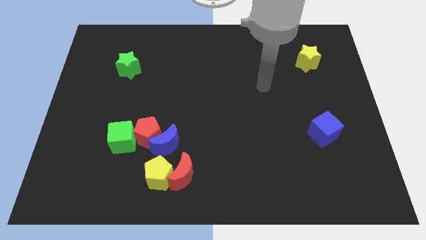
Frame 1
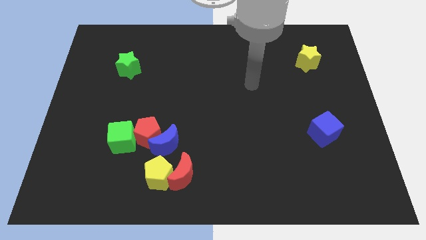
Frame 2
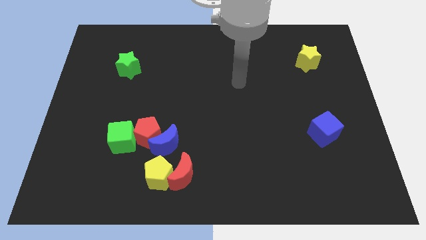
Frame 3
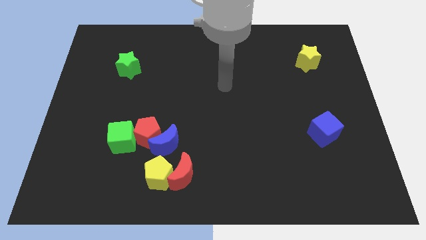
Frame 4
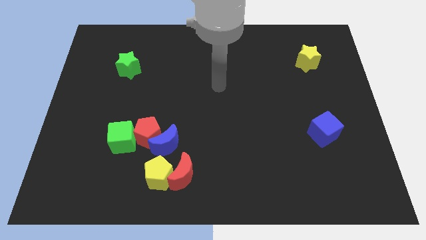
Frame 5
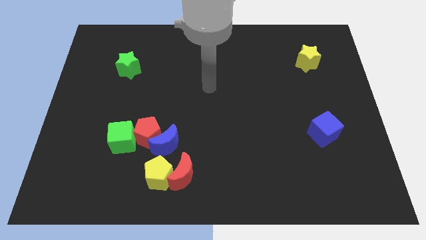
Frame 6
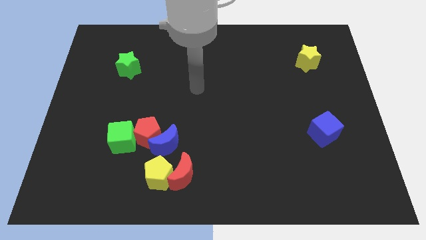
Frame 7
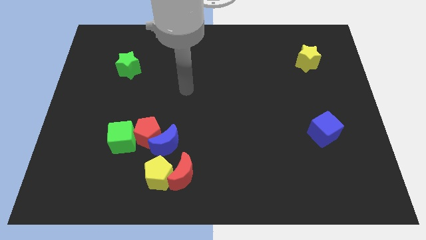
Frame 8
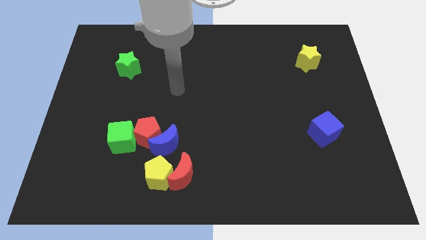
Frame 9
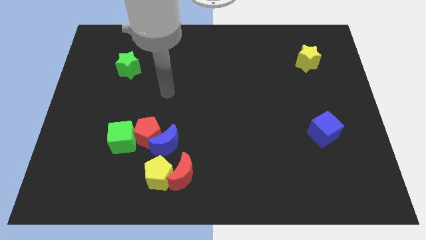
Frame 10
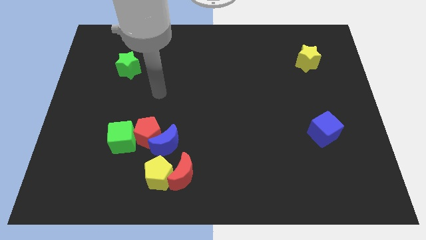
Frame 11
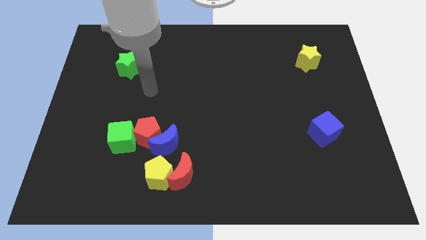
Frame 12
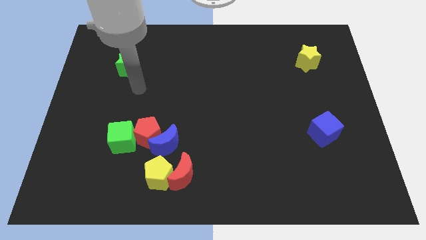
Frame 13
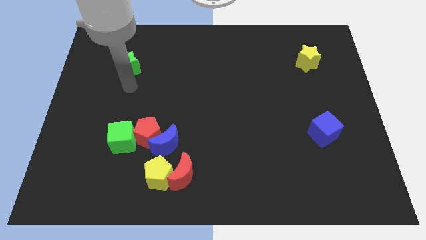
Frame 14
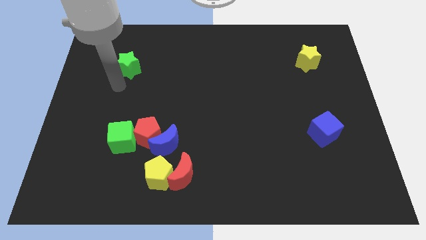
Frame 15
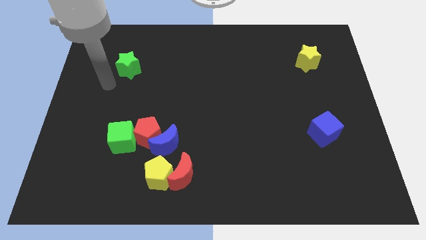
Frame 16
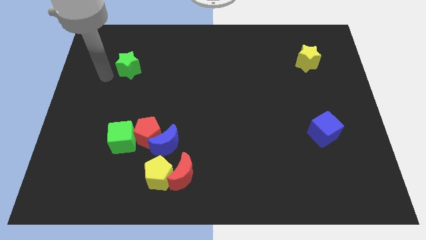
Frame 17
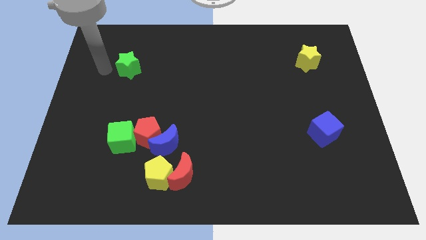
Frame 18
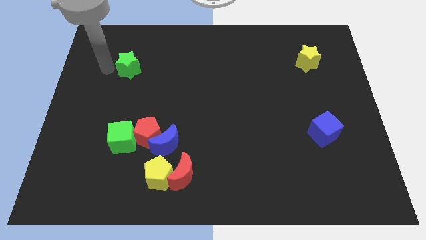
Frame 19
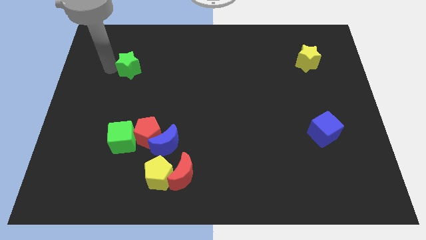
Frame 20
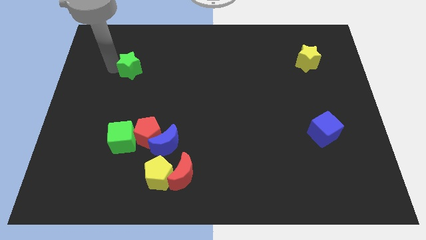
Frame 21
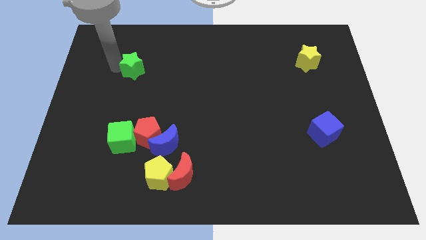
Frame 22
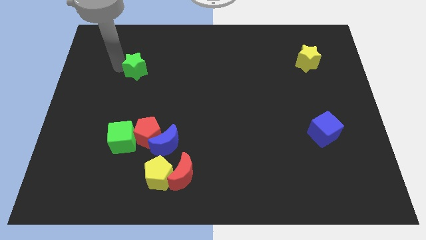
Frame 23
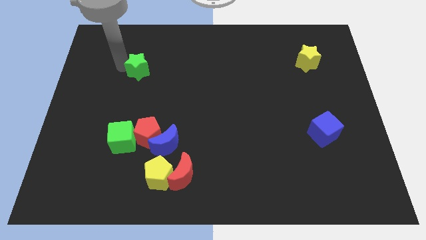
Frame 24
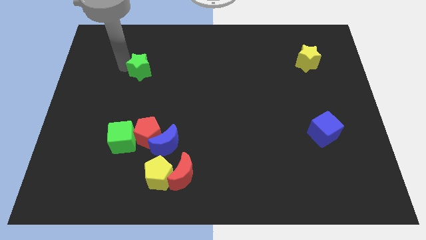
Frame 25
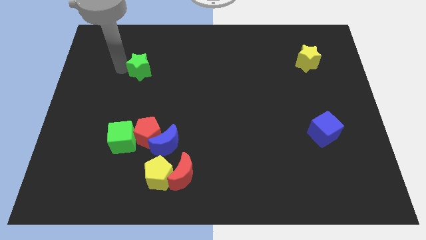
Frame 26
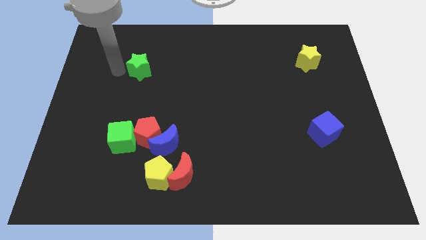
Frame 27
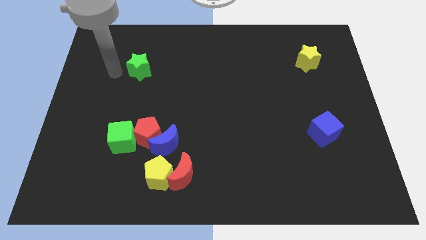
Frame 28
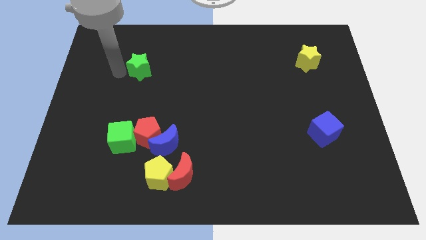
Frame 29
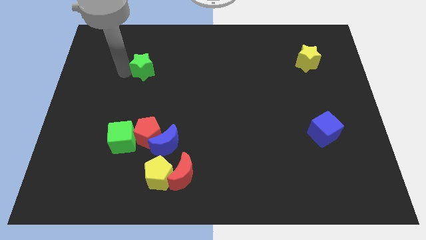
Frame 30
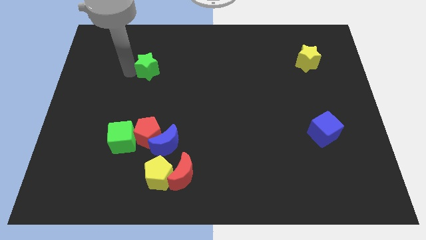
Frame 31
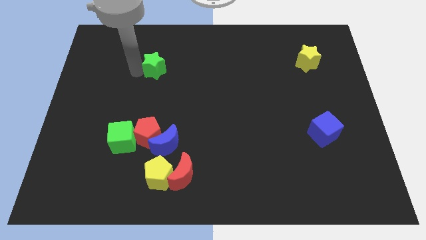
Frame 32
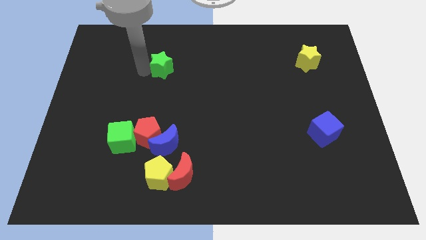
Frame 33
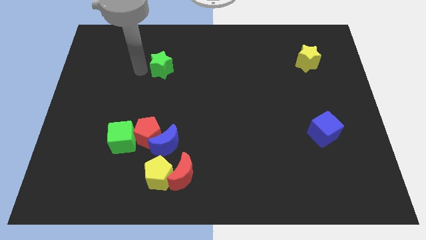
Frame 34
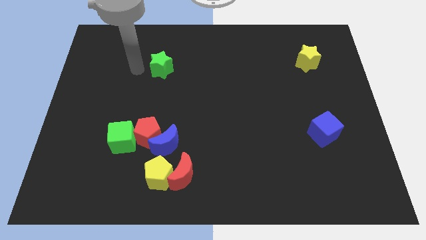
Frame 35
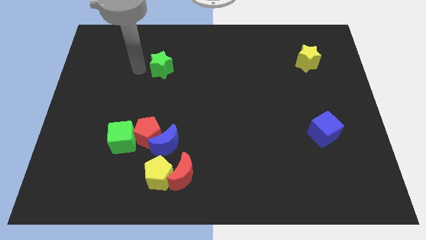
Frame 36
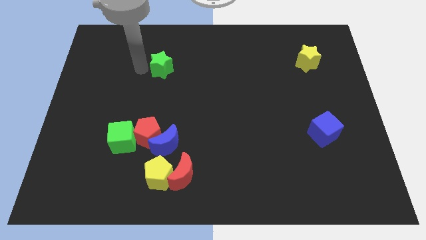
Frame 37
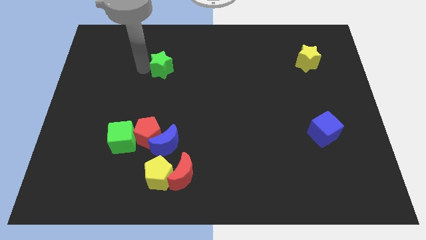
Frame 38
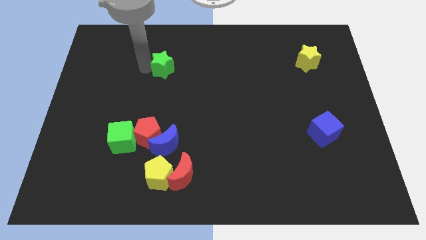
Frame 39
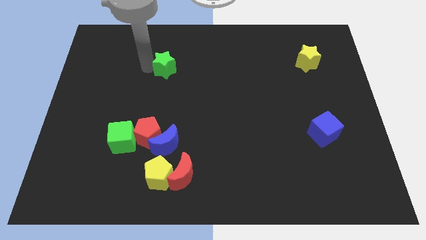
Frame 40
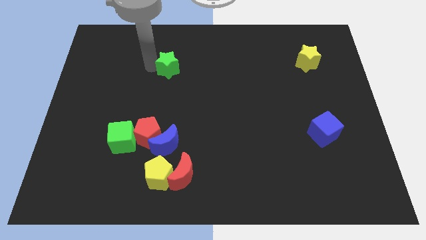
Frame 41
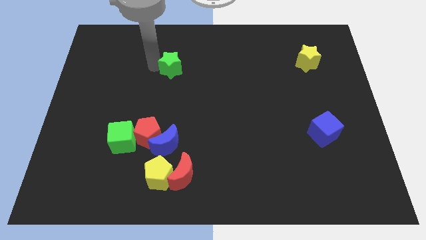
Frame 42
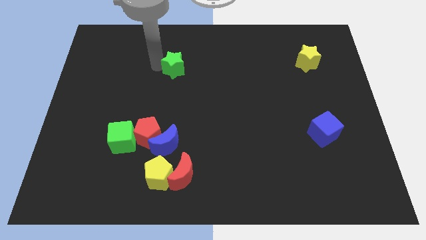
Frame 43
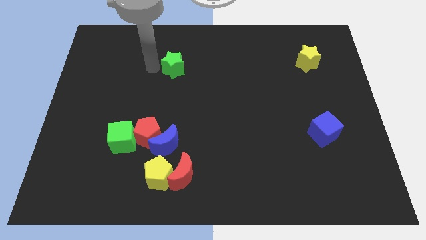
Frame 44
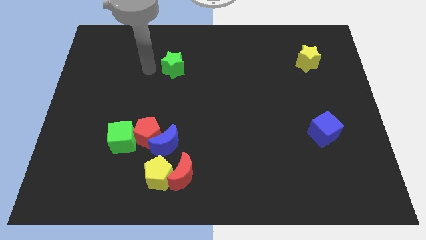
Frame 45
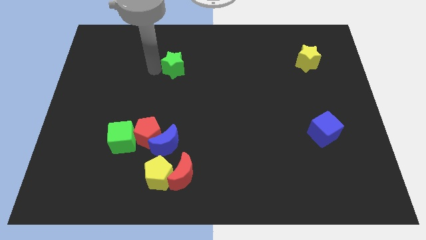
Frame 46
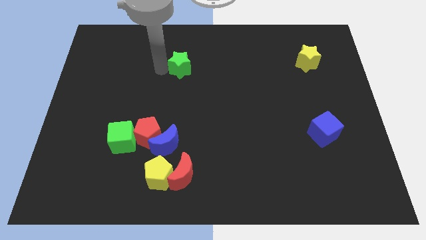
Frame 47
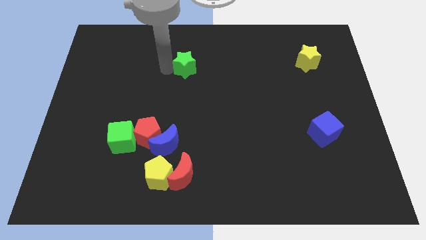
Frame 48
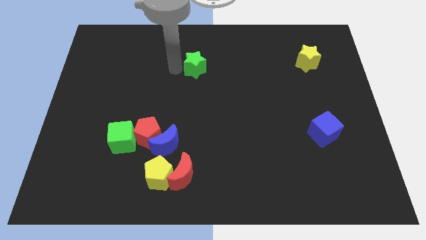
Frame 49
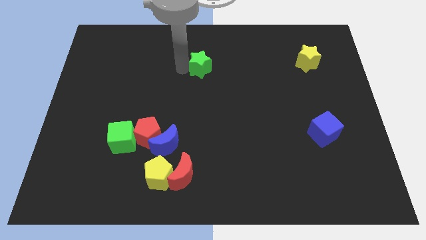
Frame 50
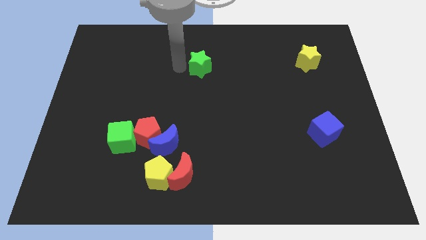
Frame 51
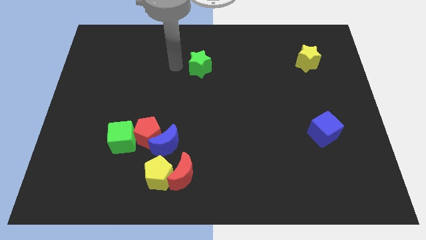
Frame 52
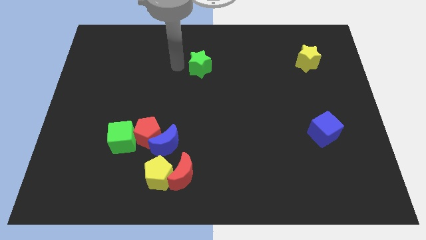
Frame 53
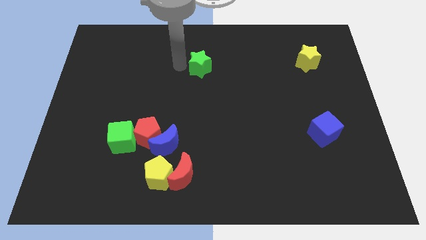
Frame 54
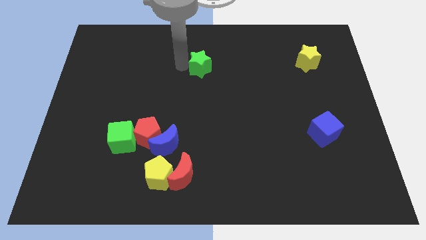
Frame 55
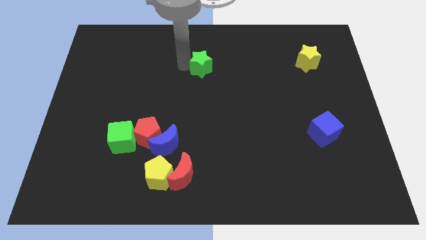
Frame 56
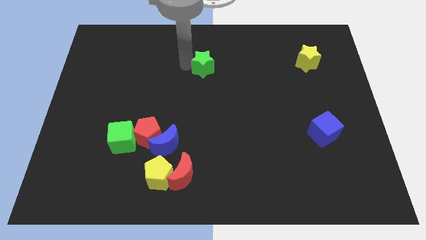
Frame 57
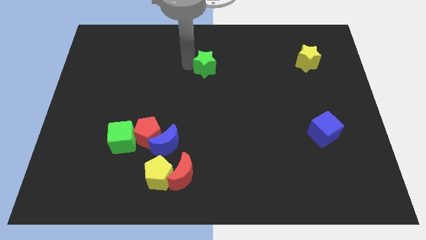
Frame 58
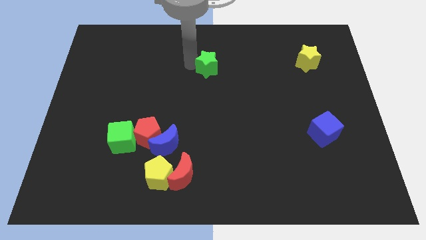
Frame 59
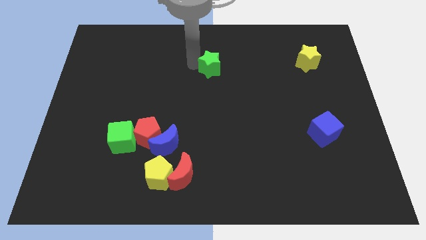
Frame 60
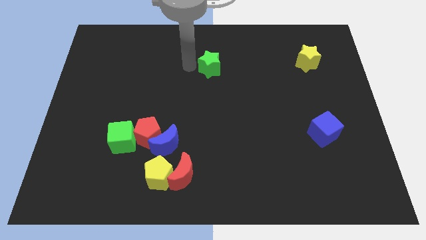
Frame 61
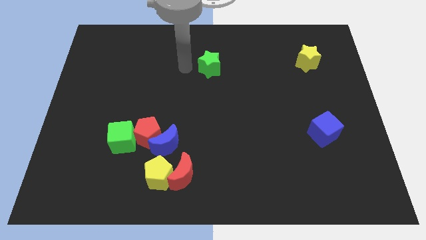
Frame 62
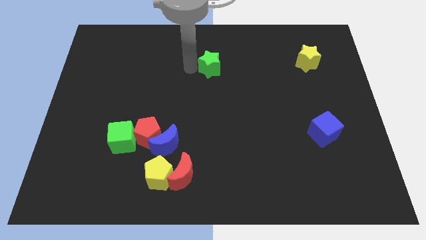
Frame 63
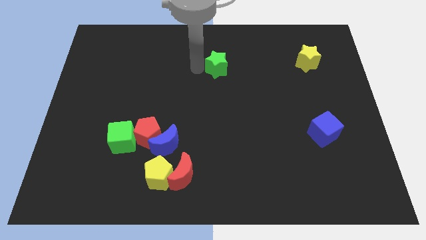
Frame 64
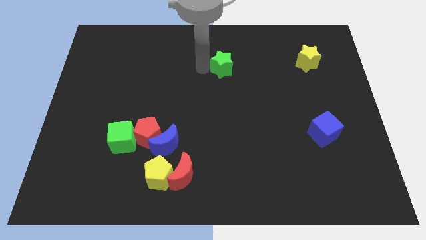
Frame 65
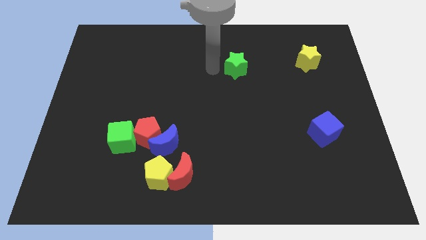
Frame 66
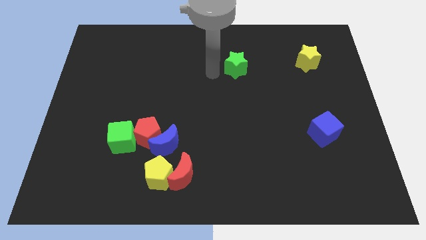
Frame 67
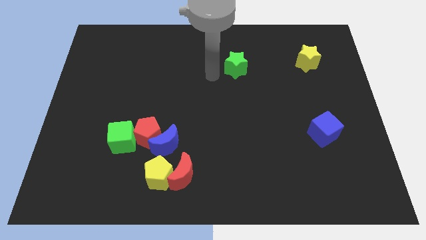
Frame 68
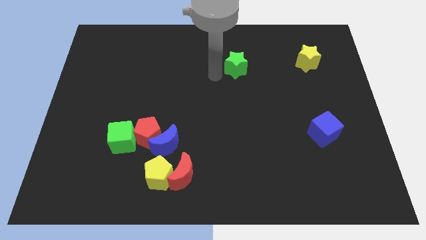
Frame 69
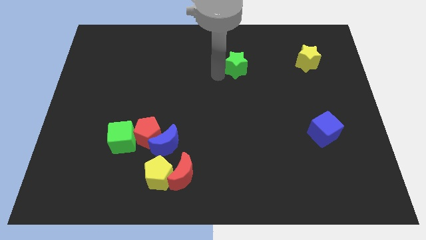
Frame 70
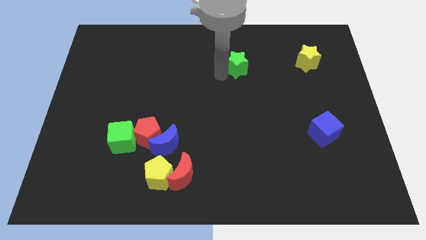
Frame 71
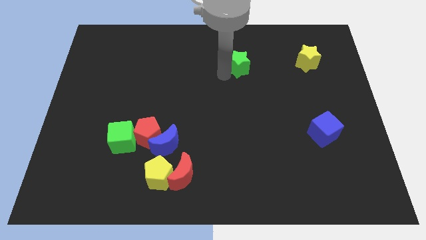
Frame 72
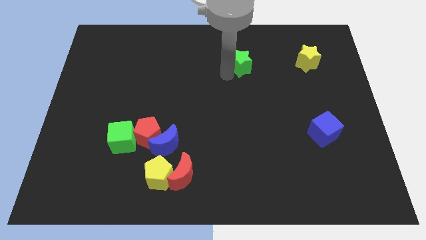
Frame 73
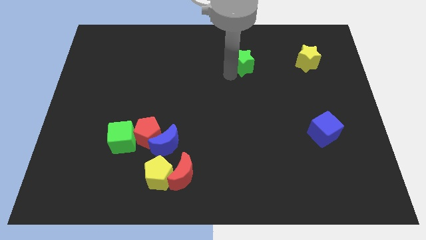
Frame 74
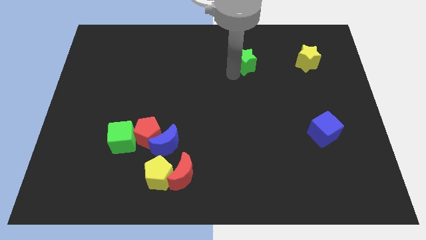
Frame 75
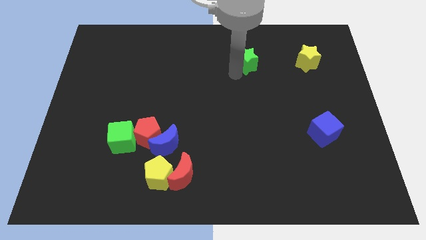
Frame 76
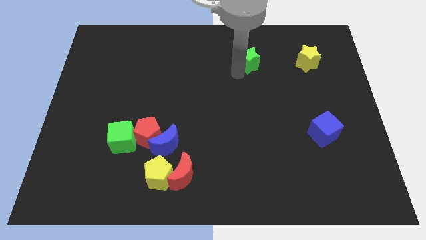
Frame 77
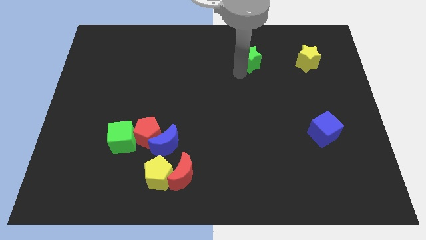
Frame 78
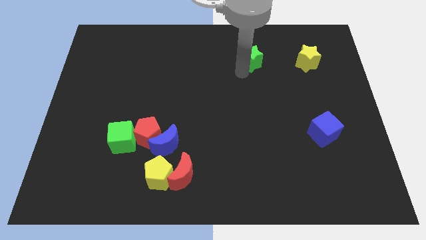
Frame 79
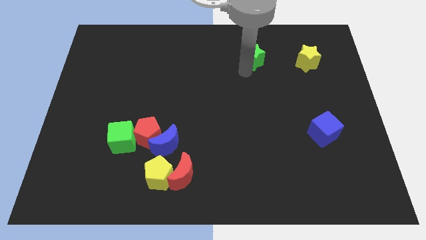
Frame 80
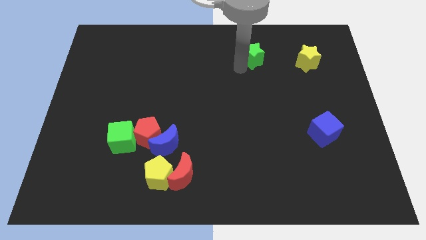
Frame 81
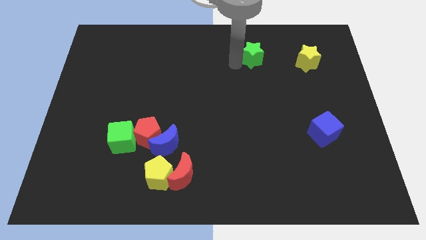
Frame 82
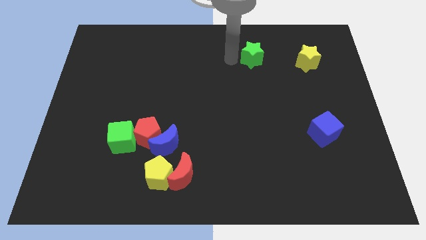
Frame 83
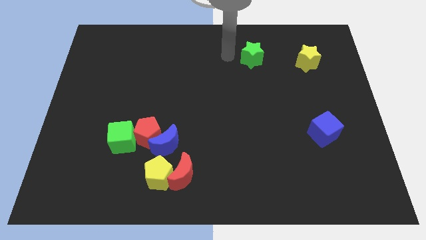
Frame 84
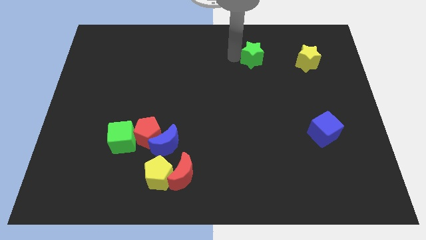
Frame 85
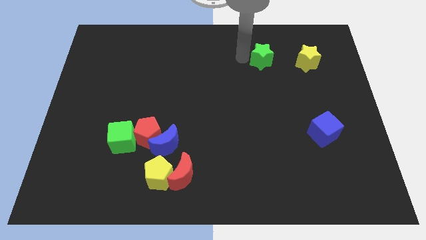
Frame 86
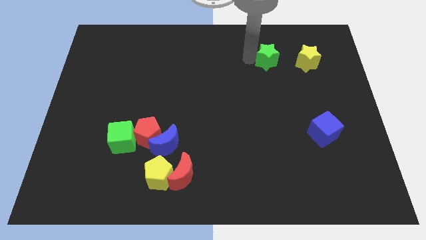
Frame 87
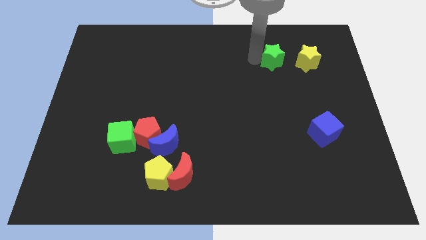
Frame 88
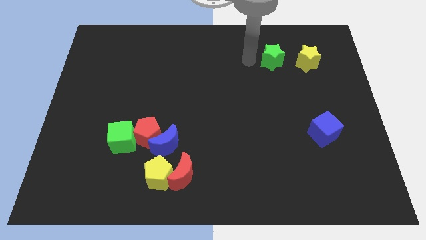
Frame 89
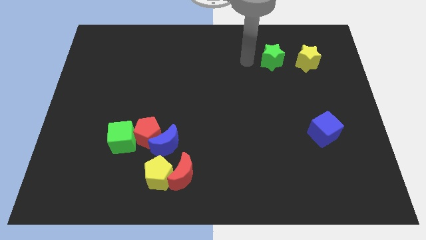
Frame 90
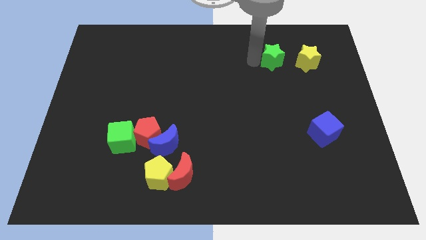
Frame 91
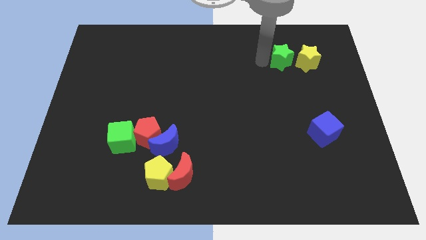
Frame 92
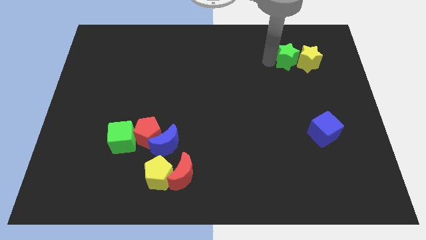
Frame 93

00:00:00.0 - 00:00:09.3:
put the green star close to the yellow star
